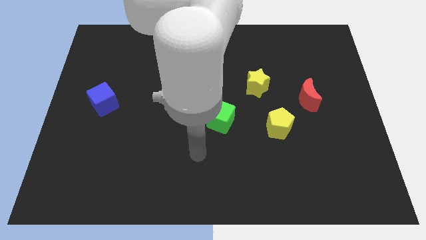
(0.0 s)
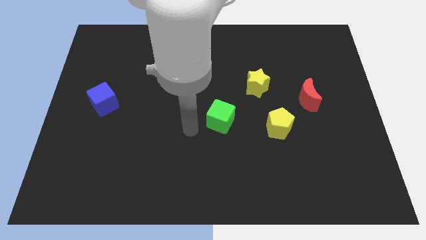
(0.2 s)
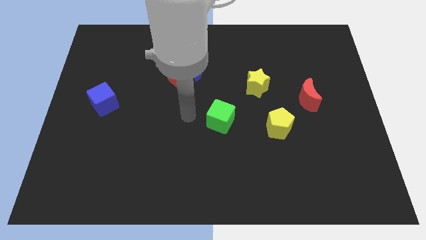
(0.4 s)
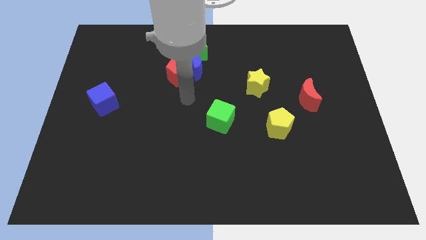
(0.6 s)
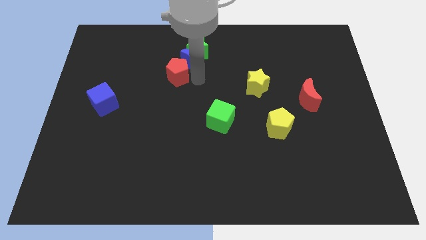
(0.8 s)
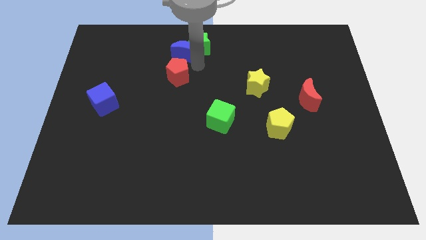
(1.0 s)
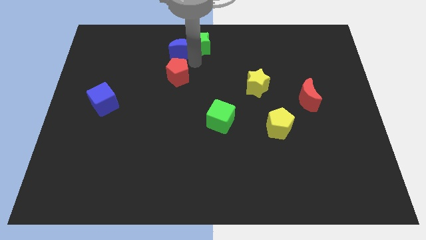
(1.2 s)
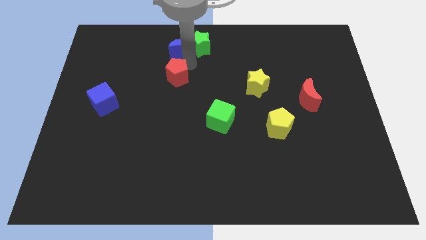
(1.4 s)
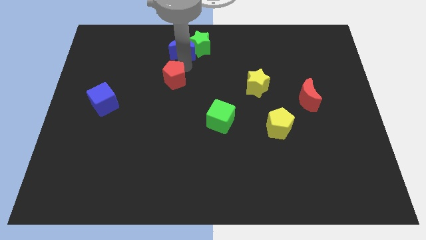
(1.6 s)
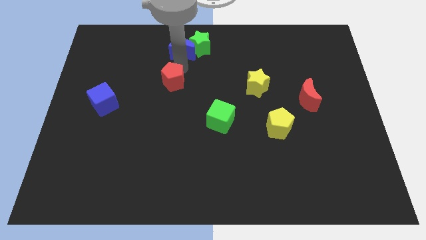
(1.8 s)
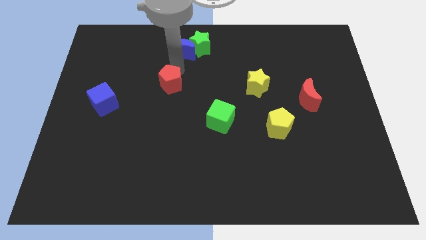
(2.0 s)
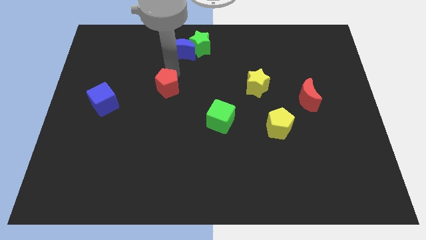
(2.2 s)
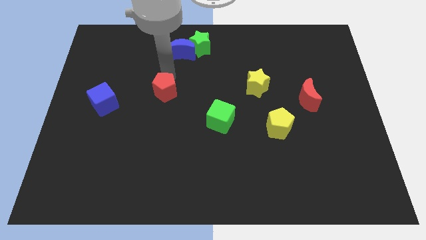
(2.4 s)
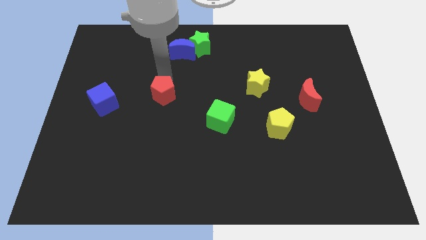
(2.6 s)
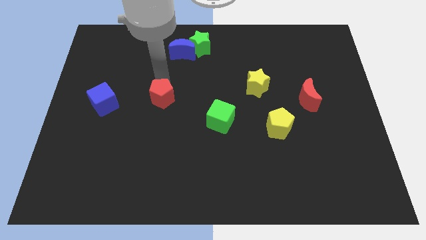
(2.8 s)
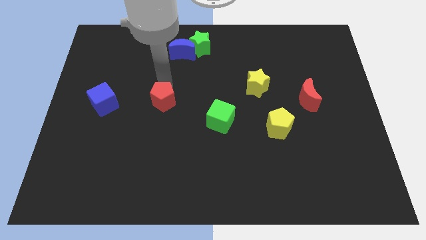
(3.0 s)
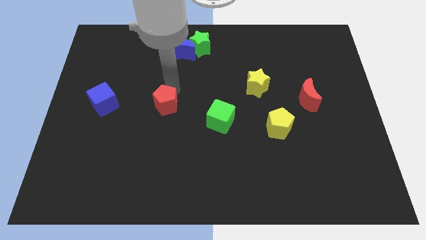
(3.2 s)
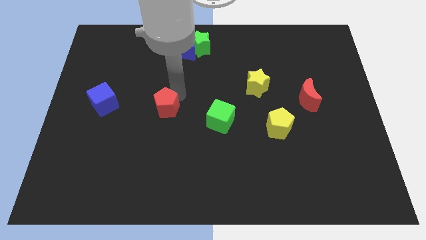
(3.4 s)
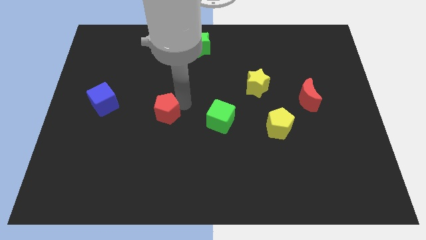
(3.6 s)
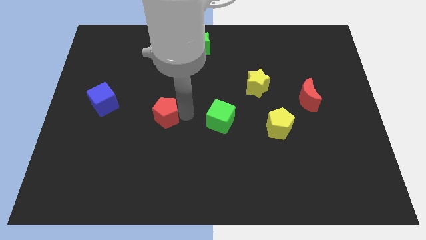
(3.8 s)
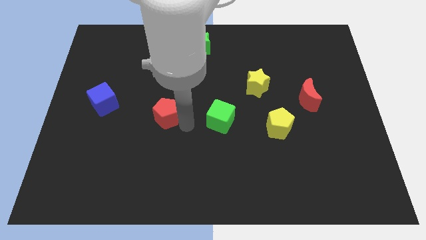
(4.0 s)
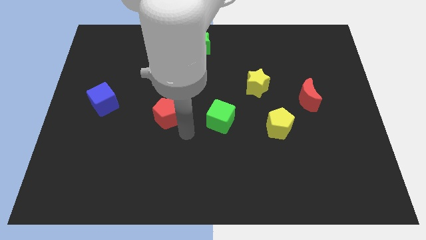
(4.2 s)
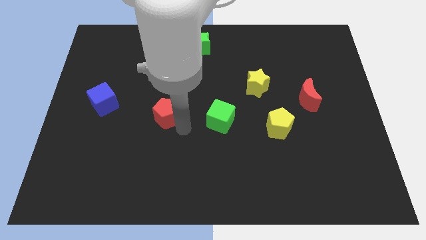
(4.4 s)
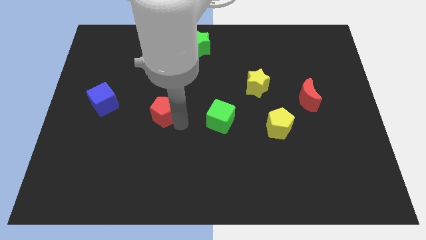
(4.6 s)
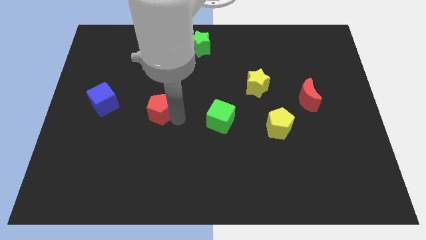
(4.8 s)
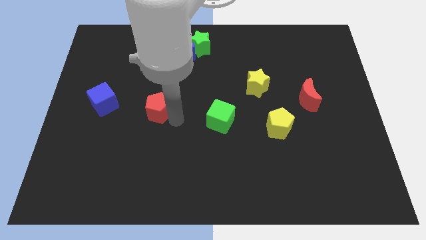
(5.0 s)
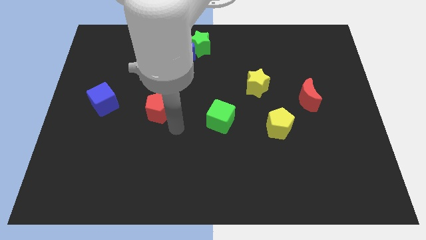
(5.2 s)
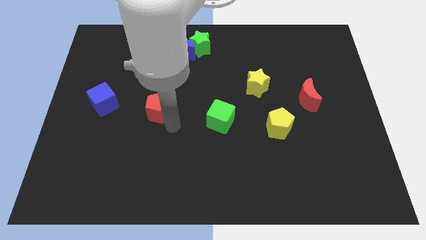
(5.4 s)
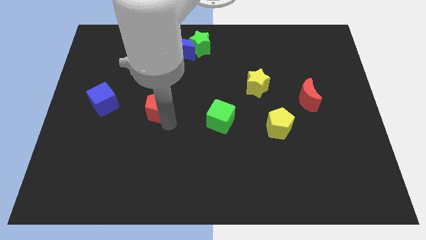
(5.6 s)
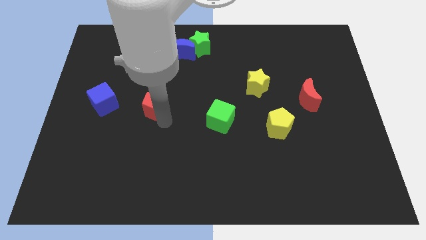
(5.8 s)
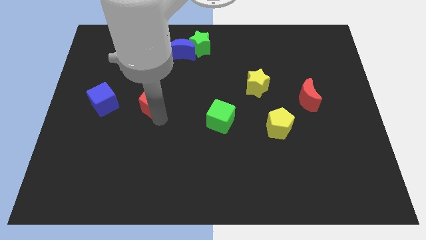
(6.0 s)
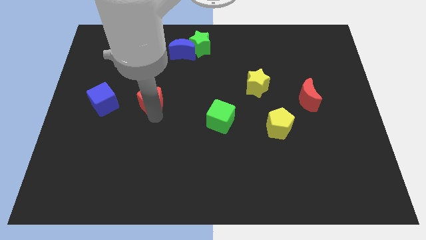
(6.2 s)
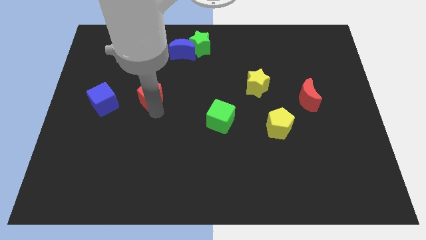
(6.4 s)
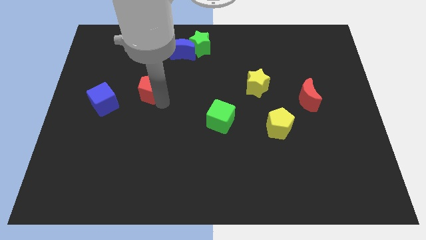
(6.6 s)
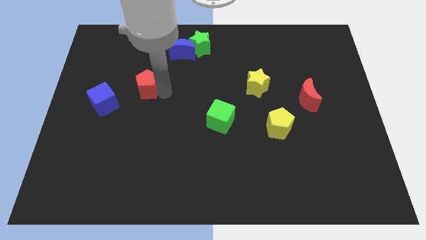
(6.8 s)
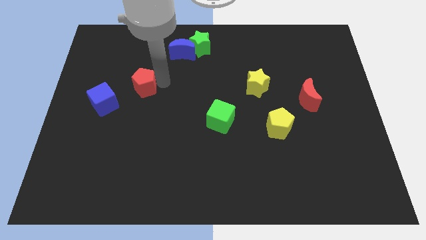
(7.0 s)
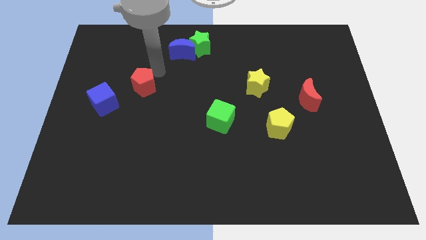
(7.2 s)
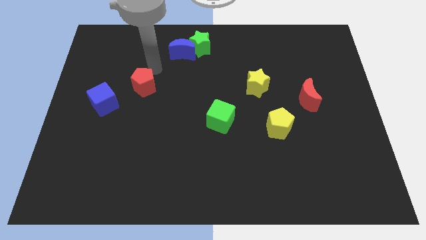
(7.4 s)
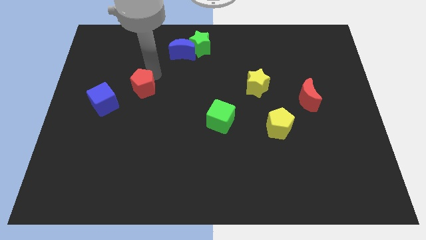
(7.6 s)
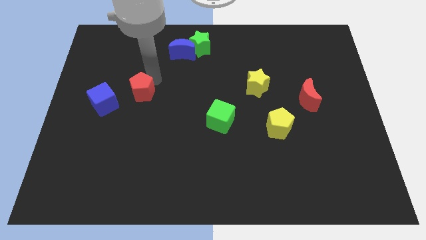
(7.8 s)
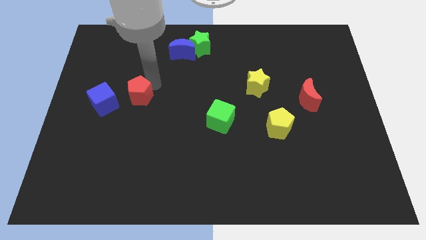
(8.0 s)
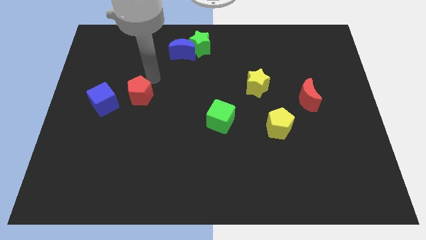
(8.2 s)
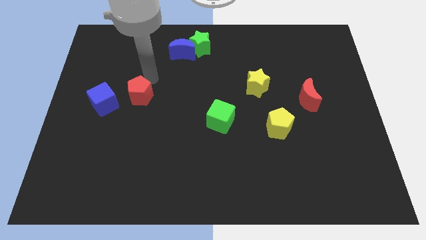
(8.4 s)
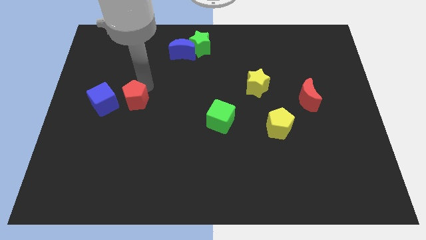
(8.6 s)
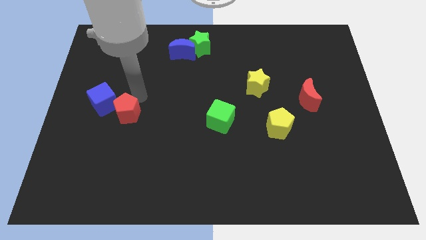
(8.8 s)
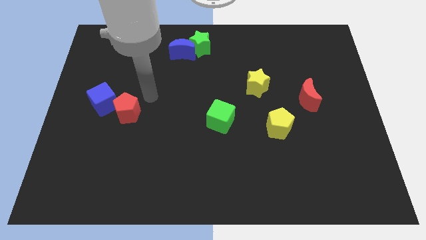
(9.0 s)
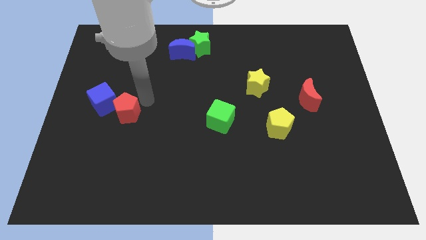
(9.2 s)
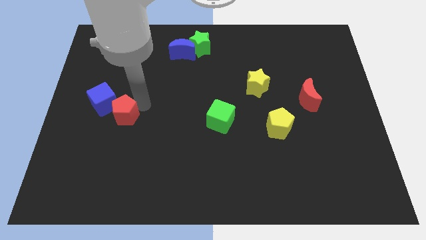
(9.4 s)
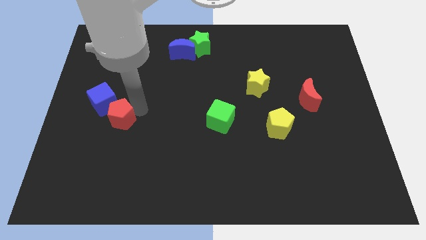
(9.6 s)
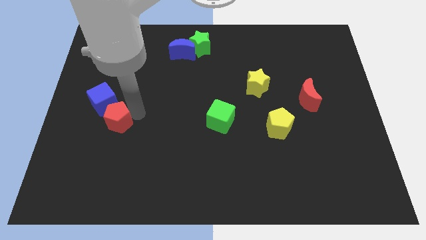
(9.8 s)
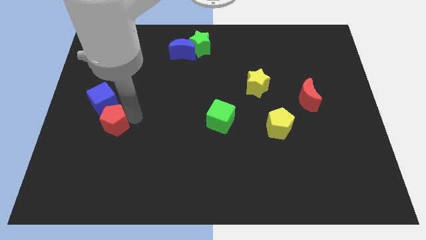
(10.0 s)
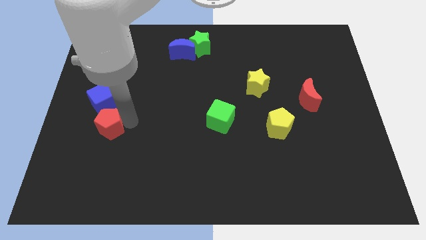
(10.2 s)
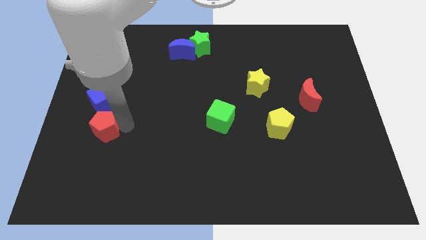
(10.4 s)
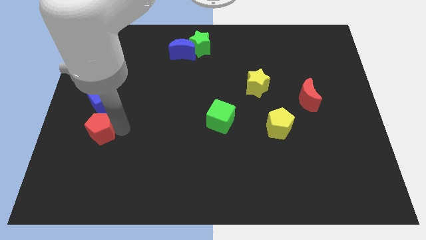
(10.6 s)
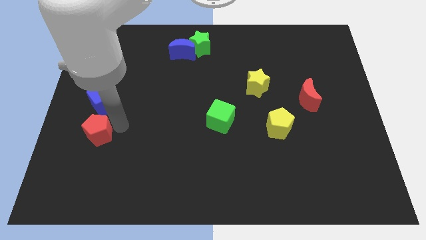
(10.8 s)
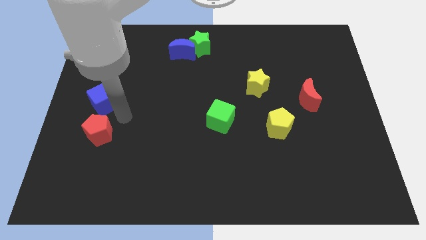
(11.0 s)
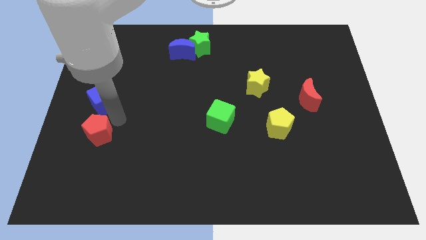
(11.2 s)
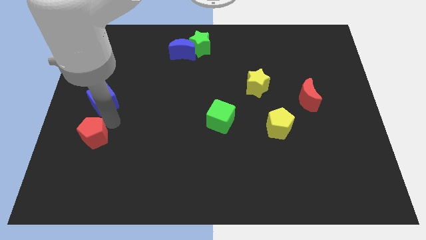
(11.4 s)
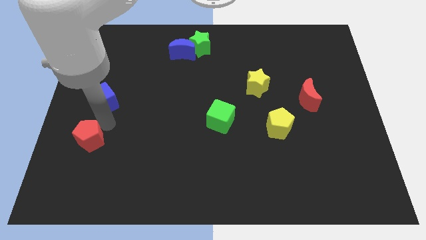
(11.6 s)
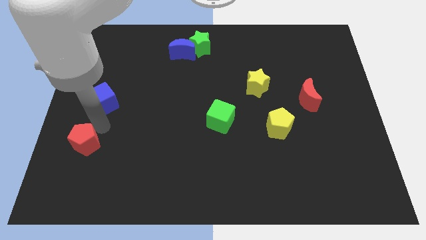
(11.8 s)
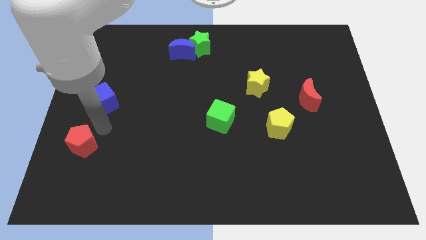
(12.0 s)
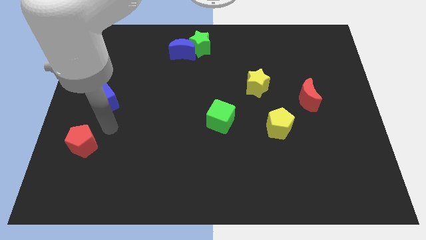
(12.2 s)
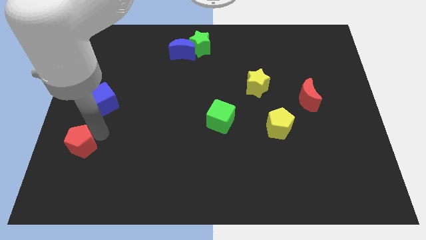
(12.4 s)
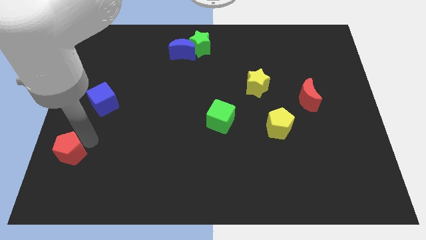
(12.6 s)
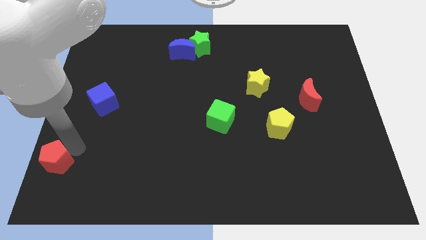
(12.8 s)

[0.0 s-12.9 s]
push the red pentagon to the bottom left

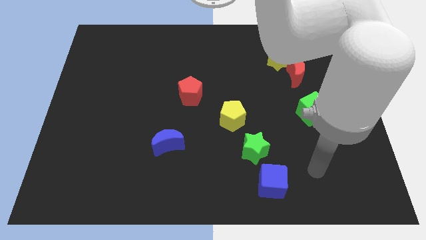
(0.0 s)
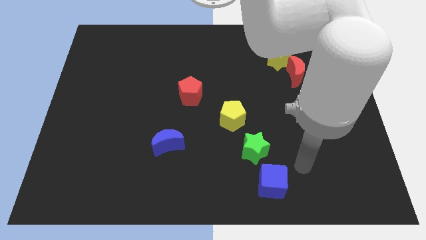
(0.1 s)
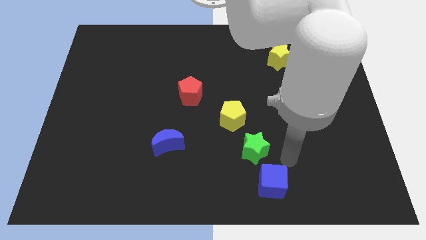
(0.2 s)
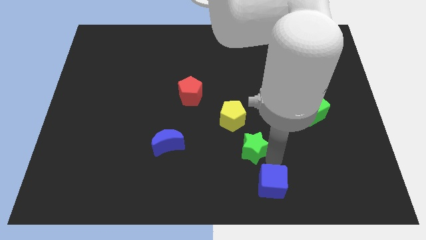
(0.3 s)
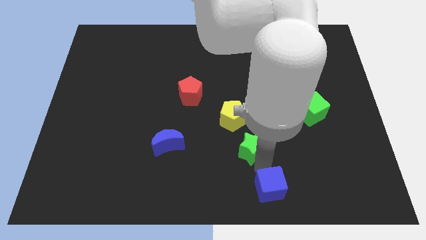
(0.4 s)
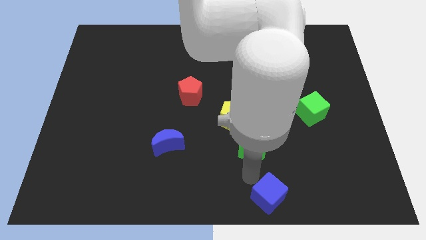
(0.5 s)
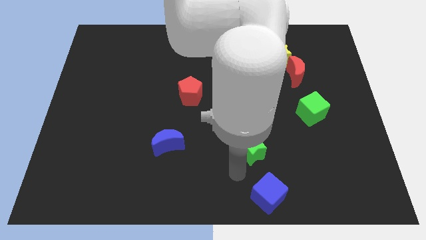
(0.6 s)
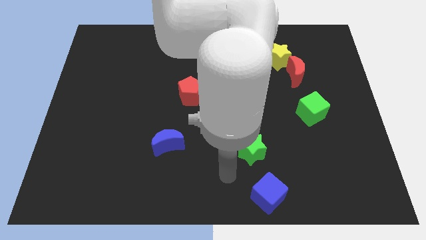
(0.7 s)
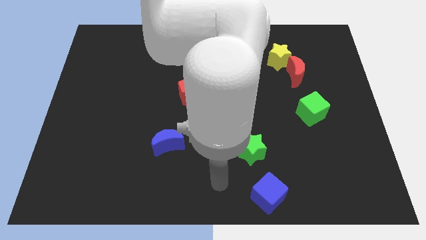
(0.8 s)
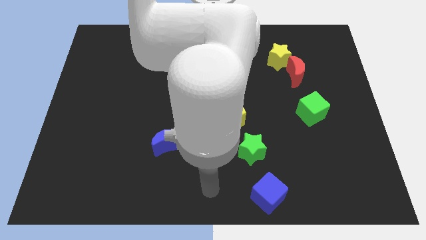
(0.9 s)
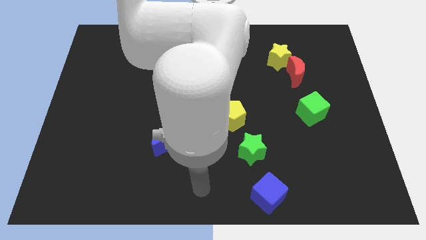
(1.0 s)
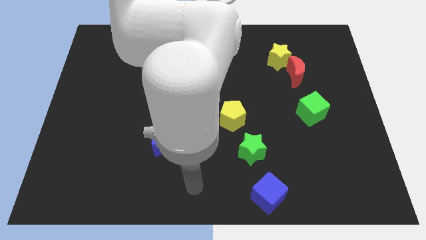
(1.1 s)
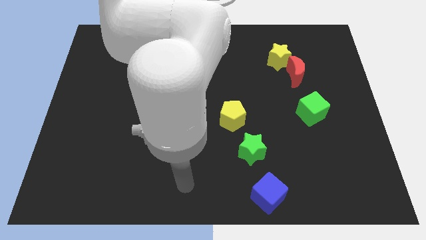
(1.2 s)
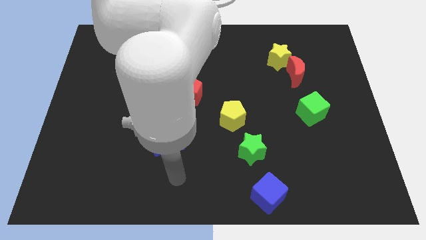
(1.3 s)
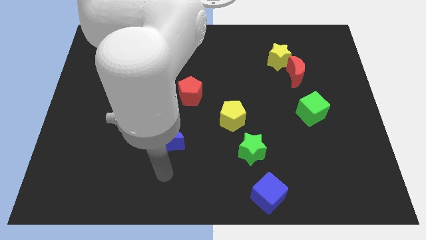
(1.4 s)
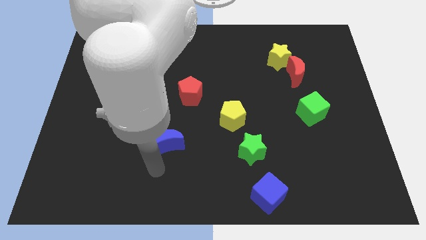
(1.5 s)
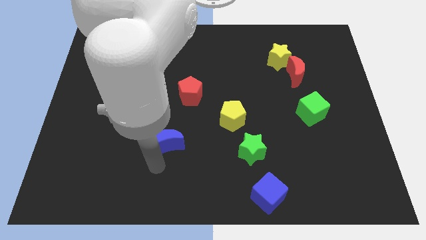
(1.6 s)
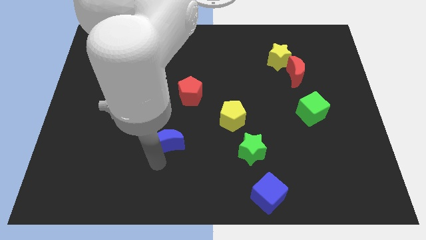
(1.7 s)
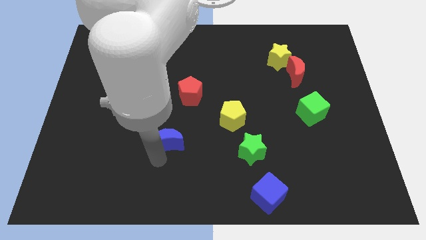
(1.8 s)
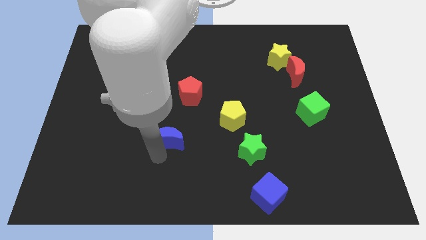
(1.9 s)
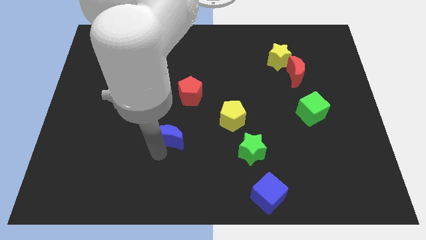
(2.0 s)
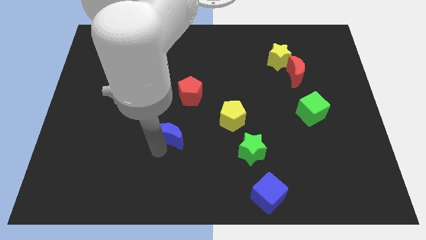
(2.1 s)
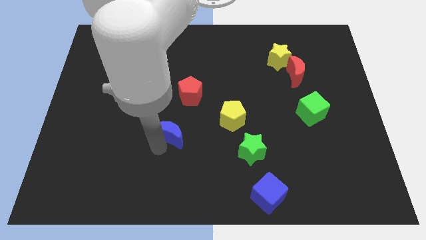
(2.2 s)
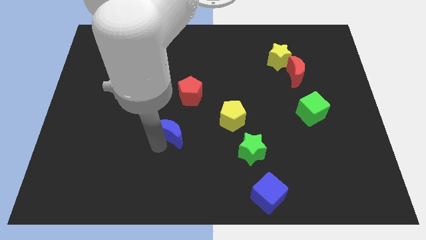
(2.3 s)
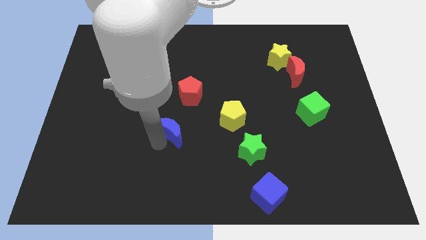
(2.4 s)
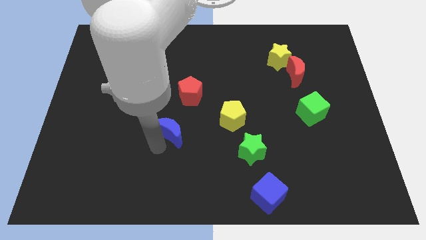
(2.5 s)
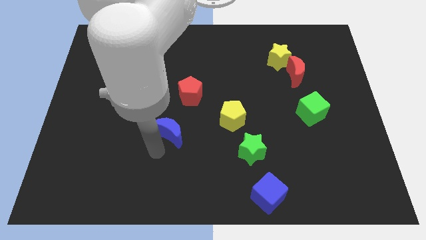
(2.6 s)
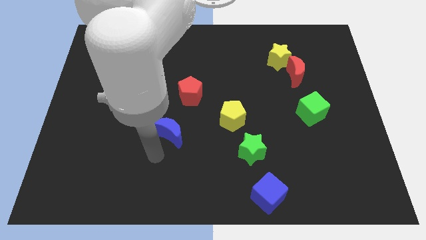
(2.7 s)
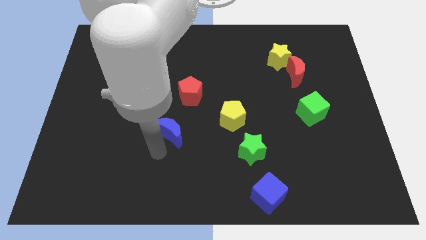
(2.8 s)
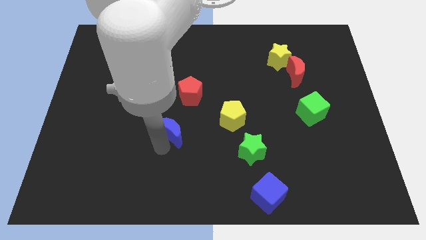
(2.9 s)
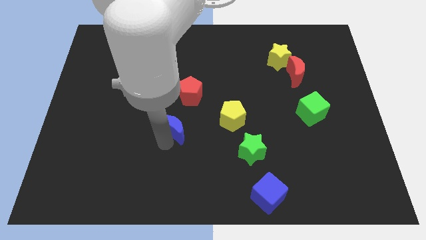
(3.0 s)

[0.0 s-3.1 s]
slide the blue moon to the center
